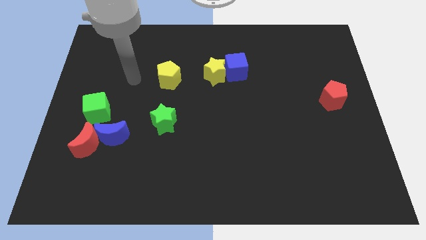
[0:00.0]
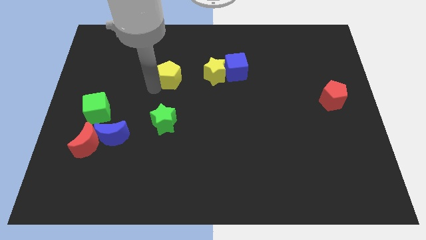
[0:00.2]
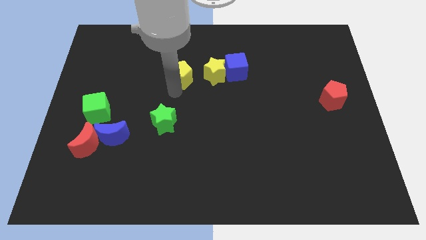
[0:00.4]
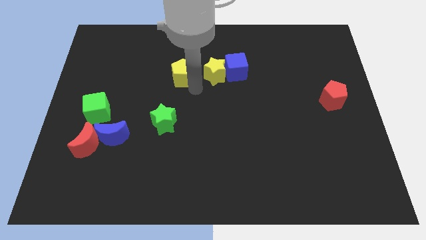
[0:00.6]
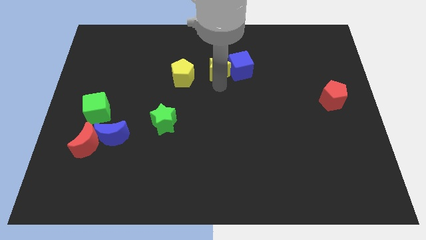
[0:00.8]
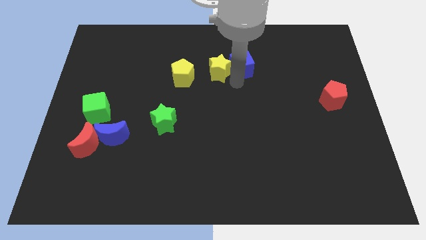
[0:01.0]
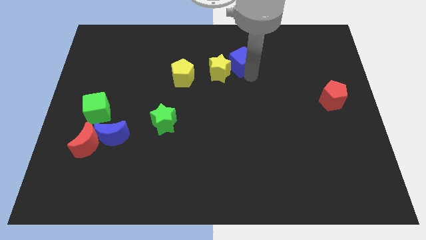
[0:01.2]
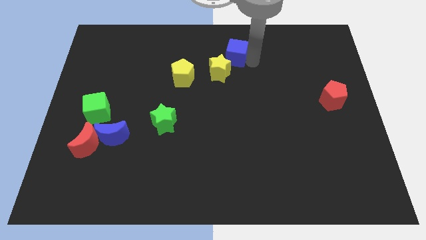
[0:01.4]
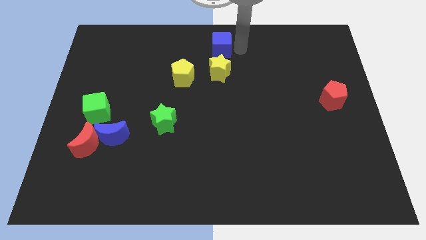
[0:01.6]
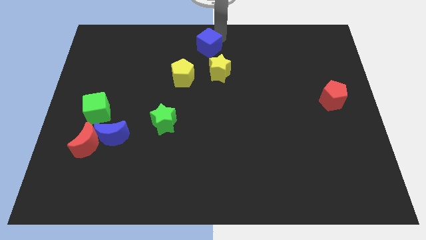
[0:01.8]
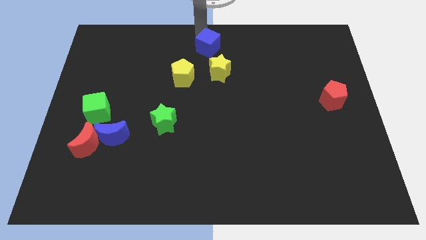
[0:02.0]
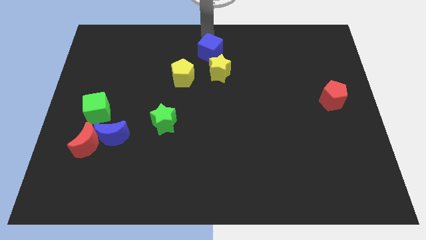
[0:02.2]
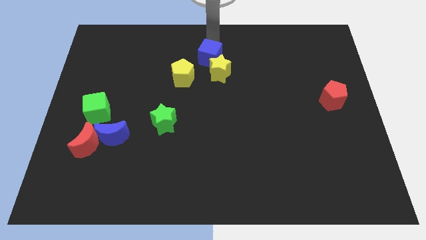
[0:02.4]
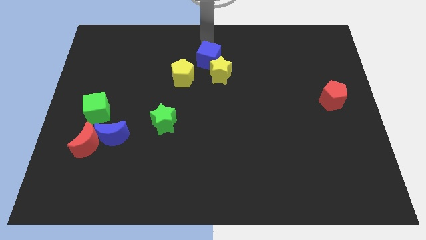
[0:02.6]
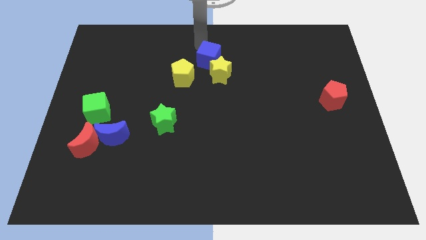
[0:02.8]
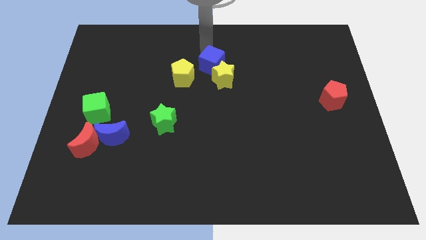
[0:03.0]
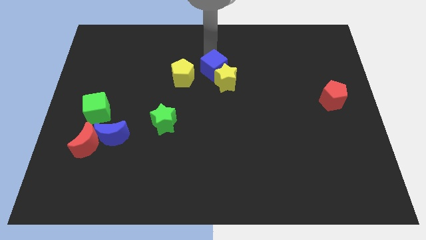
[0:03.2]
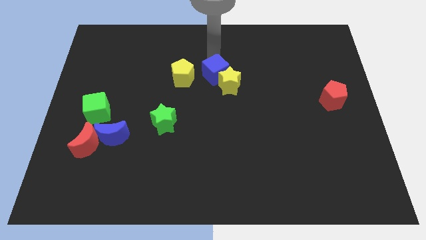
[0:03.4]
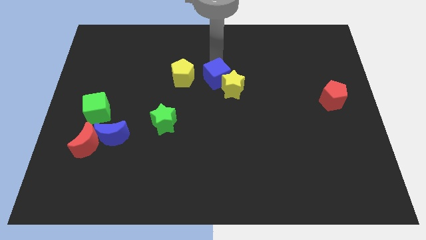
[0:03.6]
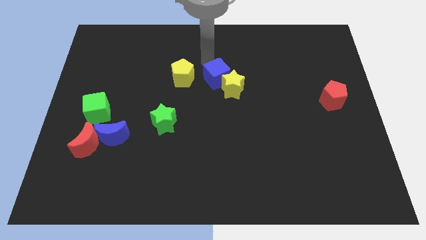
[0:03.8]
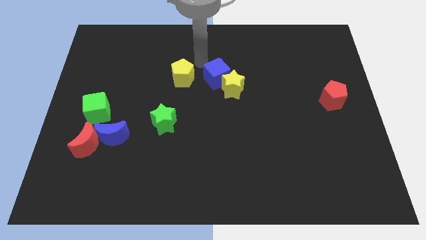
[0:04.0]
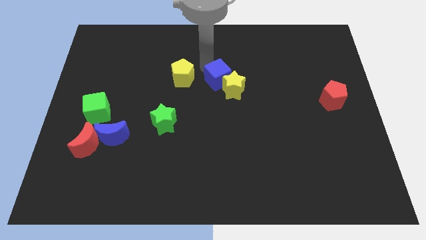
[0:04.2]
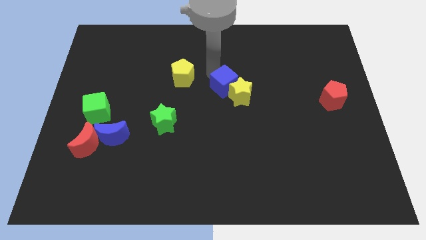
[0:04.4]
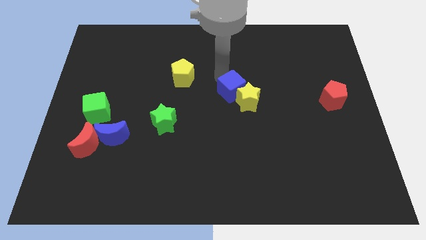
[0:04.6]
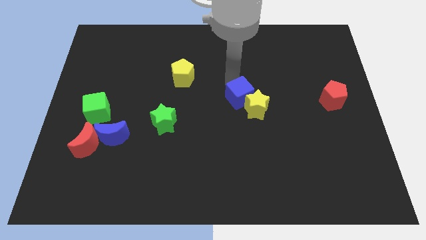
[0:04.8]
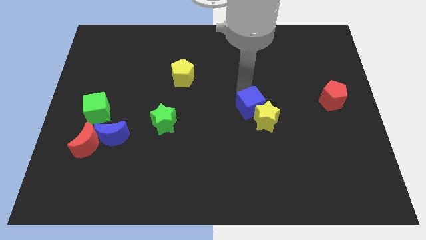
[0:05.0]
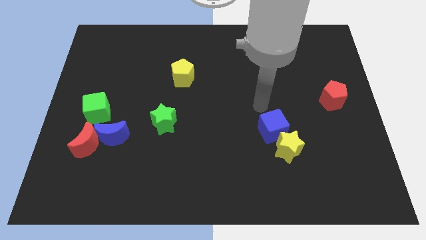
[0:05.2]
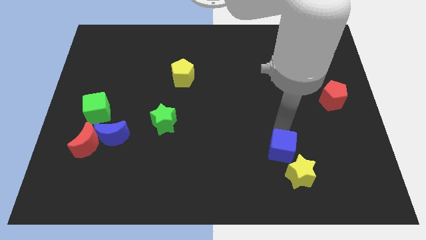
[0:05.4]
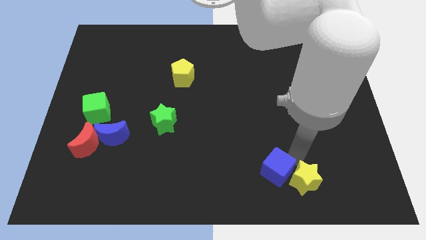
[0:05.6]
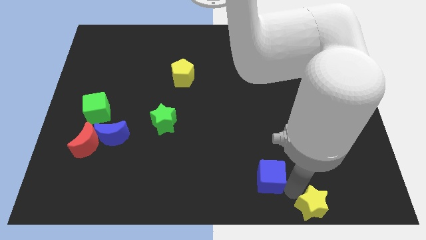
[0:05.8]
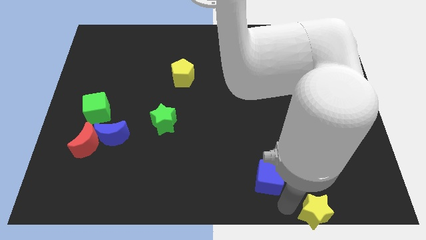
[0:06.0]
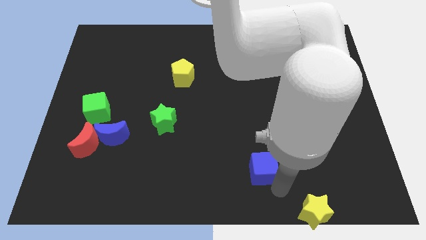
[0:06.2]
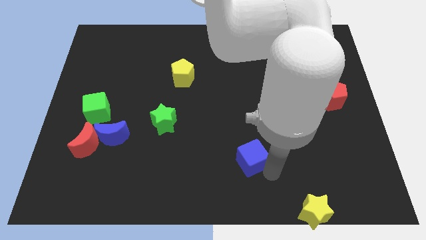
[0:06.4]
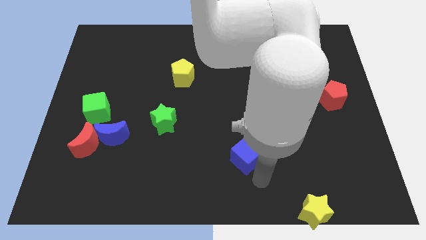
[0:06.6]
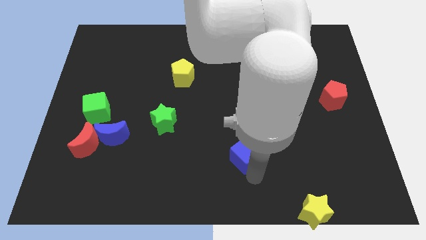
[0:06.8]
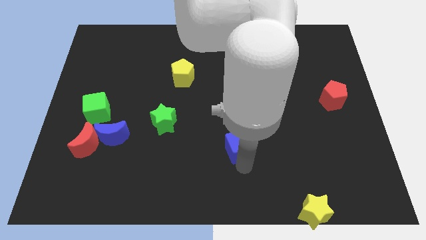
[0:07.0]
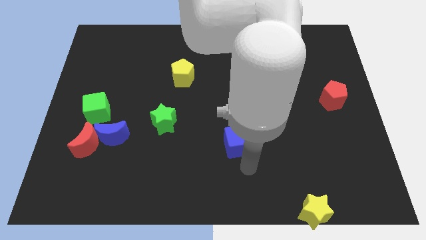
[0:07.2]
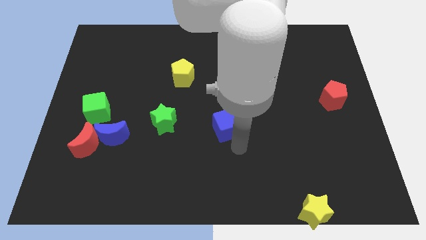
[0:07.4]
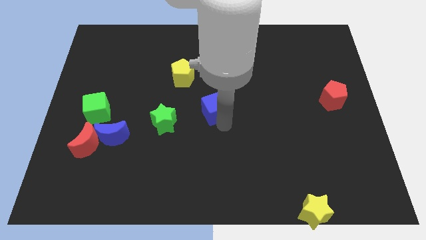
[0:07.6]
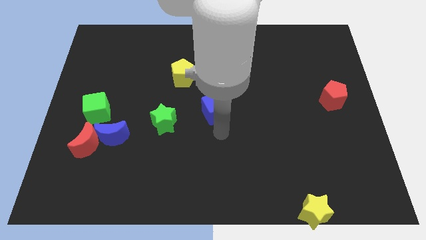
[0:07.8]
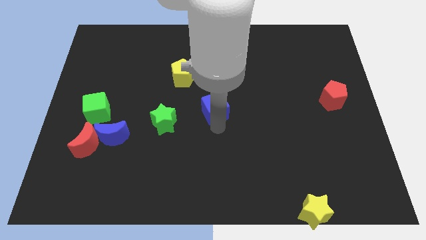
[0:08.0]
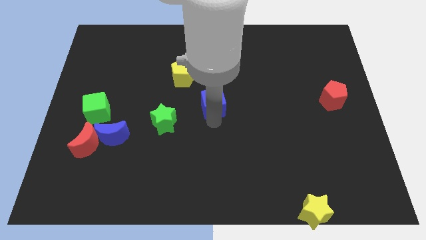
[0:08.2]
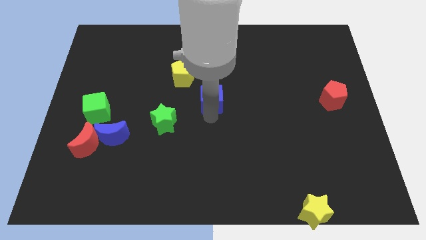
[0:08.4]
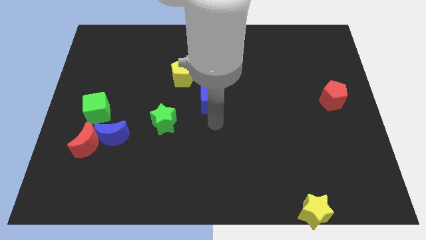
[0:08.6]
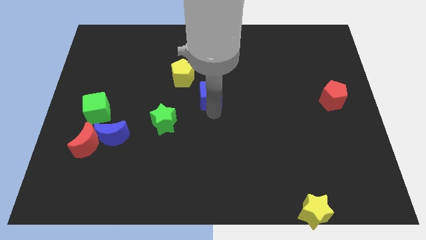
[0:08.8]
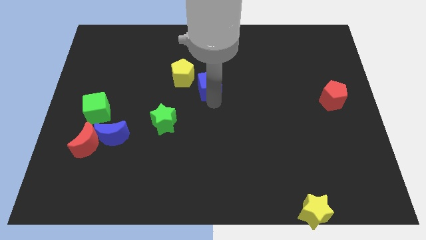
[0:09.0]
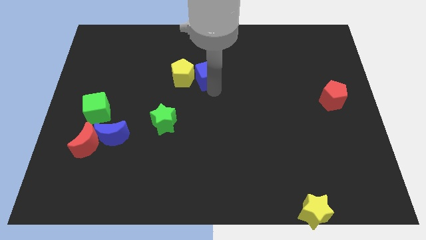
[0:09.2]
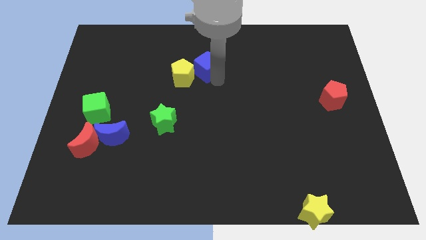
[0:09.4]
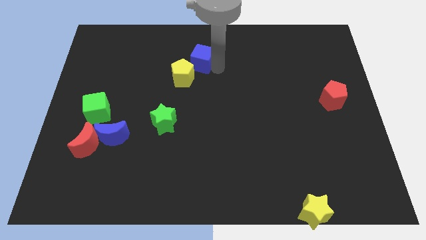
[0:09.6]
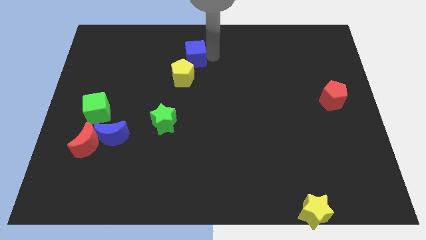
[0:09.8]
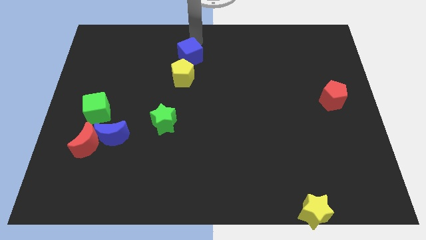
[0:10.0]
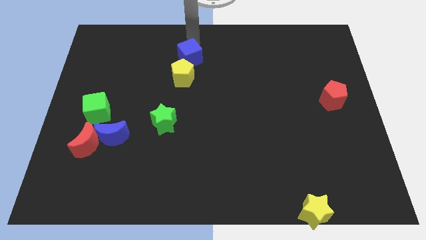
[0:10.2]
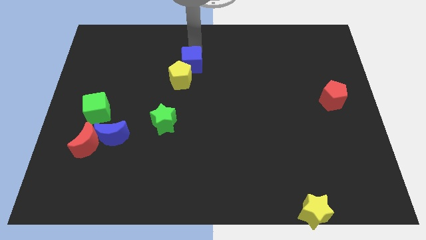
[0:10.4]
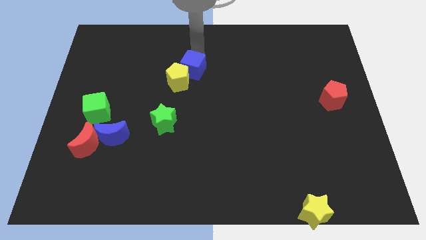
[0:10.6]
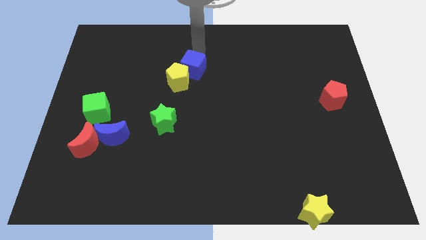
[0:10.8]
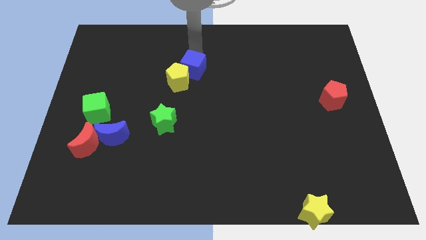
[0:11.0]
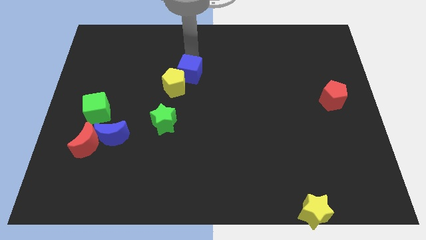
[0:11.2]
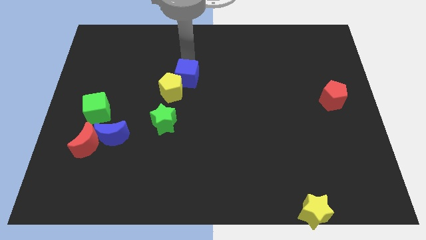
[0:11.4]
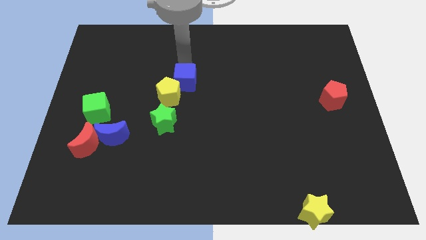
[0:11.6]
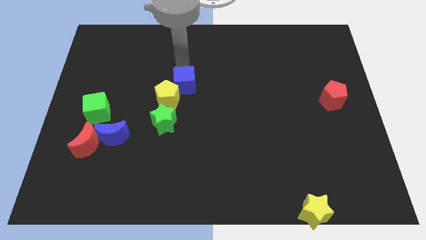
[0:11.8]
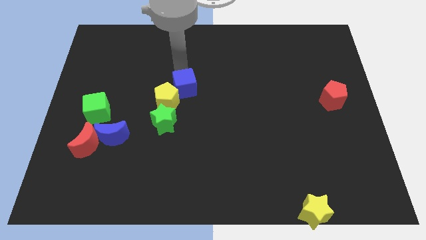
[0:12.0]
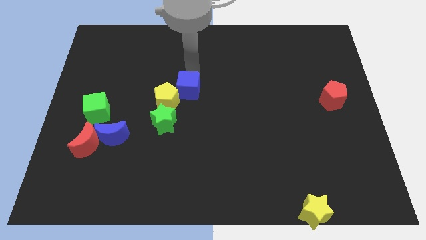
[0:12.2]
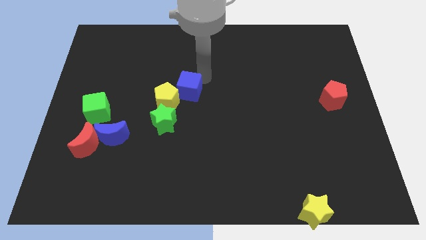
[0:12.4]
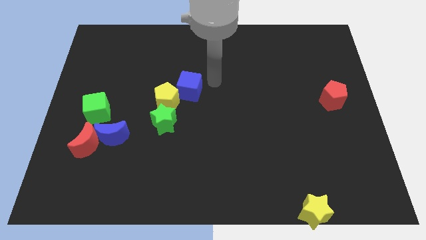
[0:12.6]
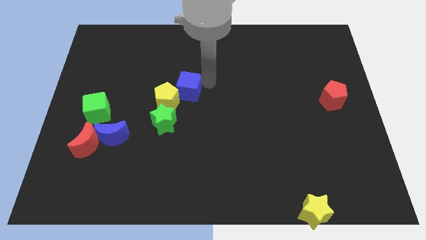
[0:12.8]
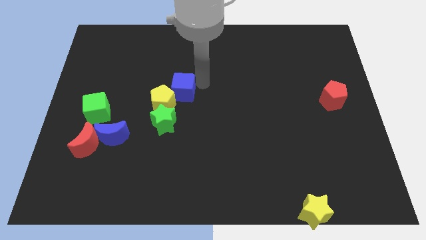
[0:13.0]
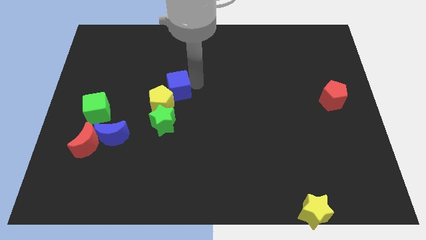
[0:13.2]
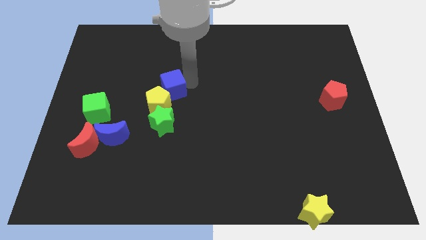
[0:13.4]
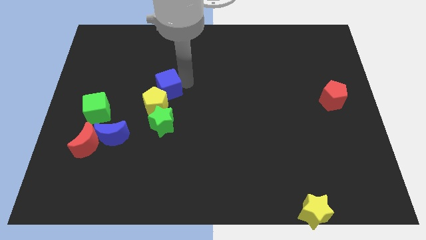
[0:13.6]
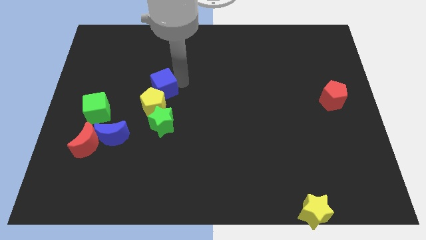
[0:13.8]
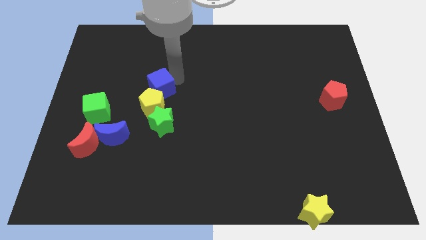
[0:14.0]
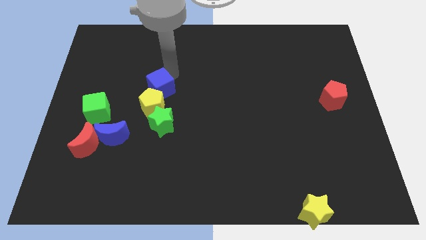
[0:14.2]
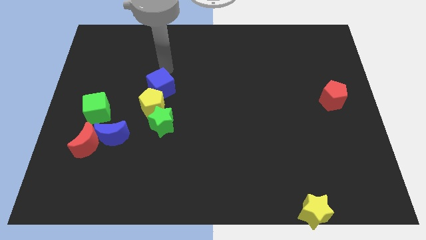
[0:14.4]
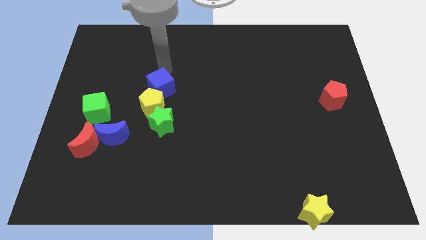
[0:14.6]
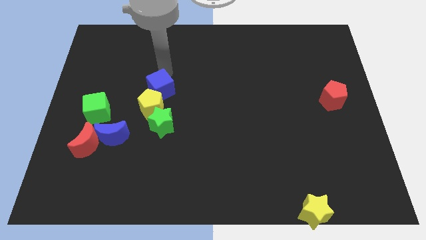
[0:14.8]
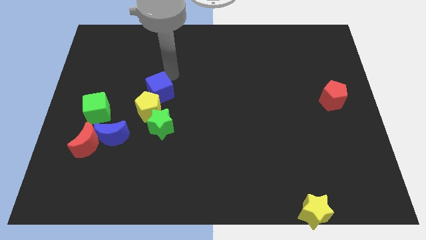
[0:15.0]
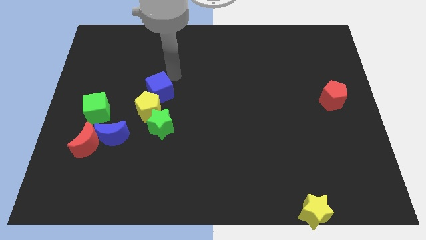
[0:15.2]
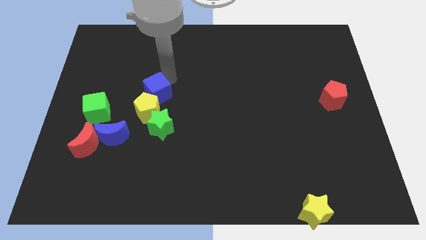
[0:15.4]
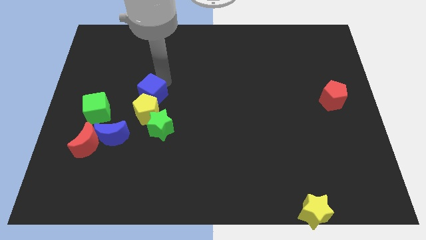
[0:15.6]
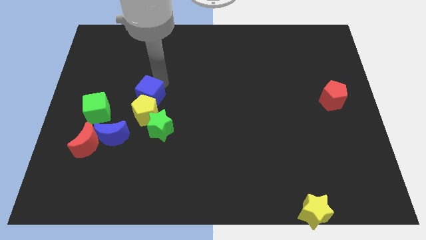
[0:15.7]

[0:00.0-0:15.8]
move the blue cube right of the green cube
